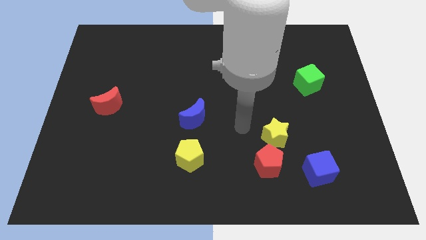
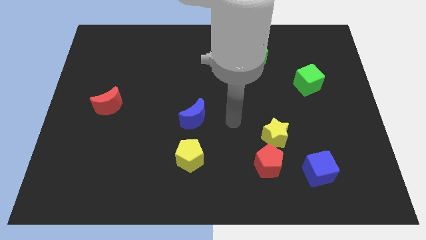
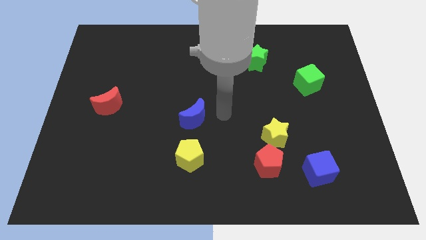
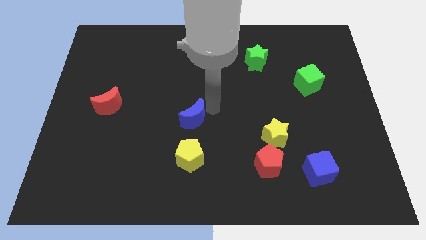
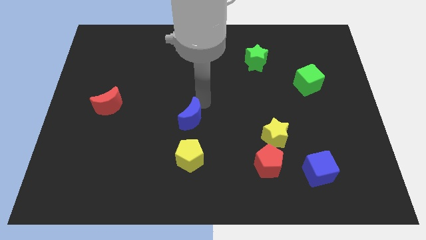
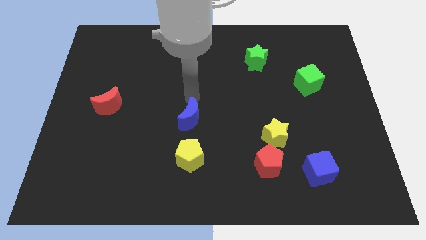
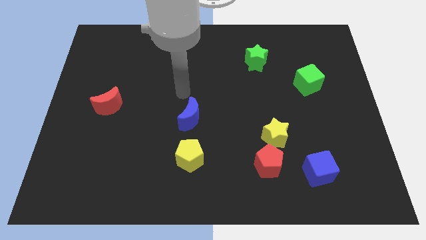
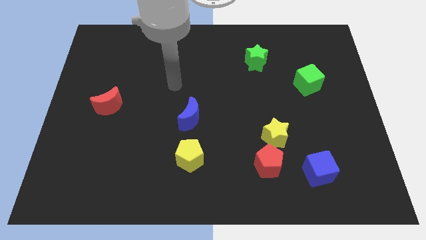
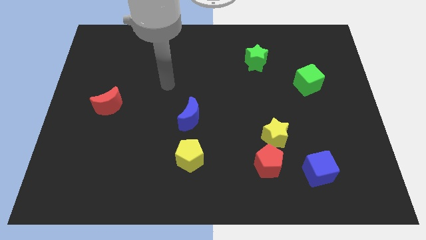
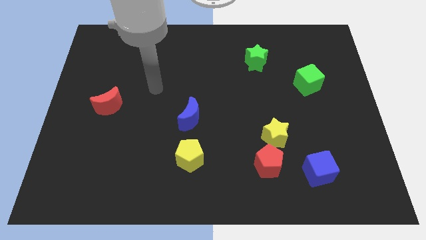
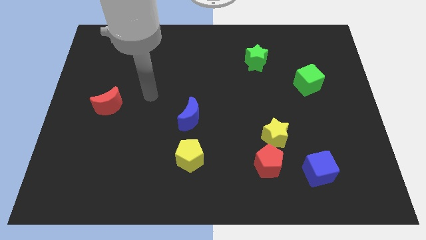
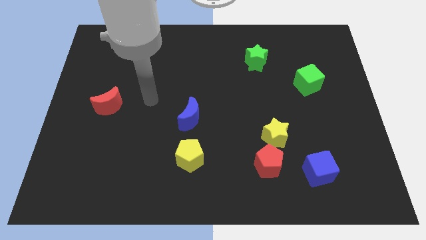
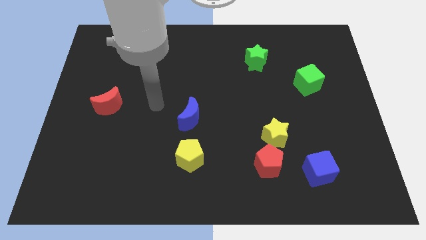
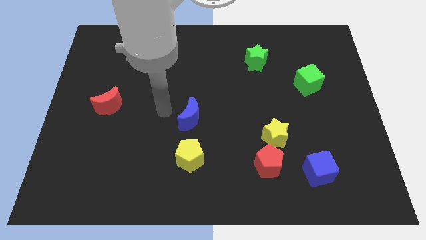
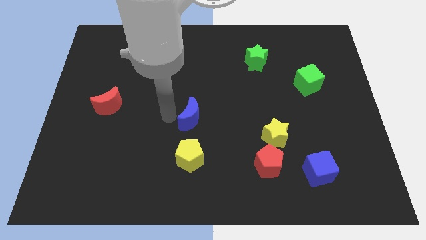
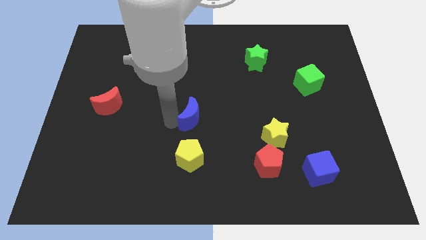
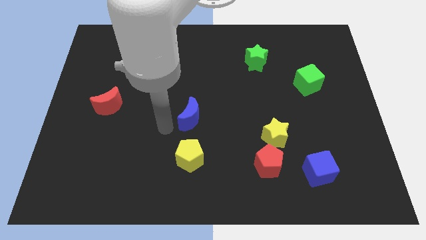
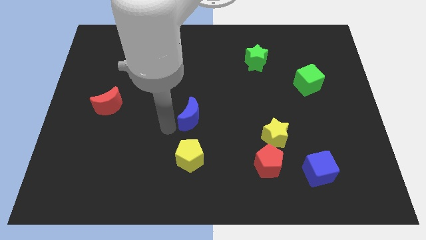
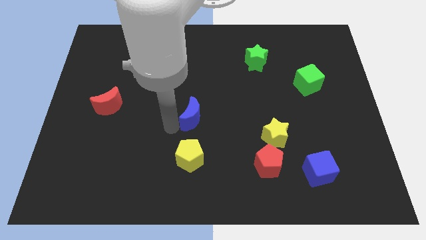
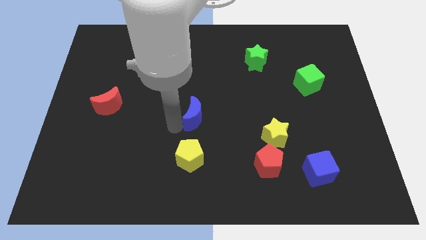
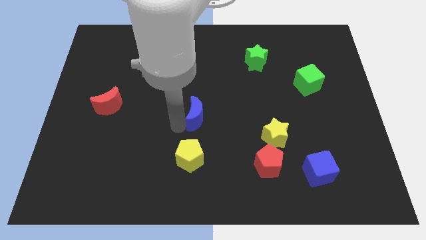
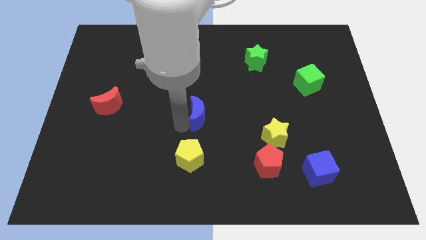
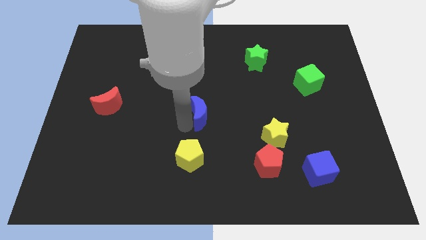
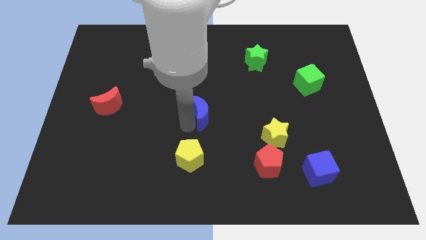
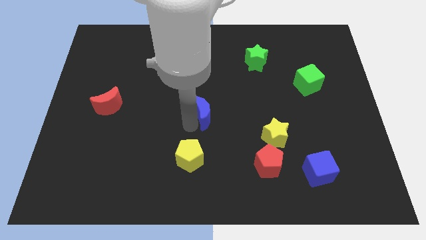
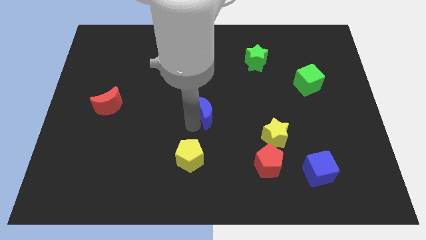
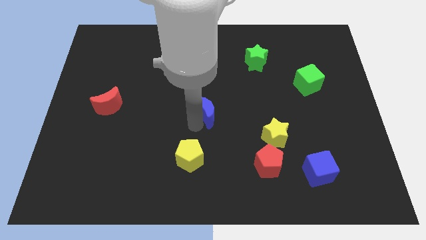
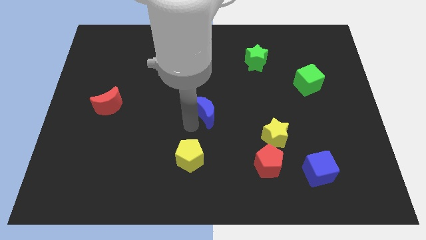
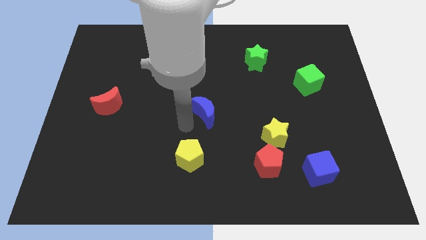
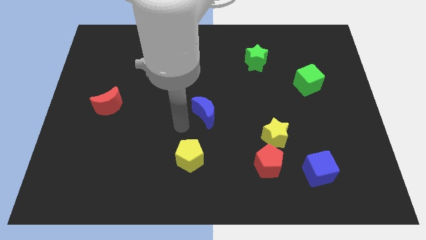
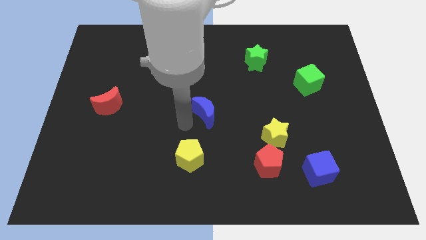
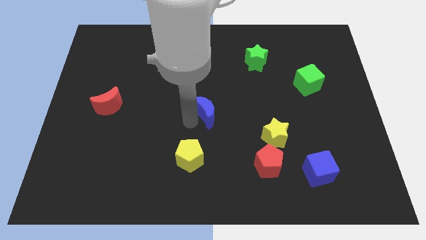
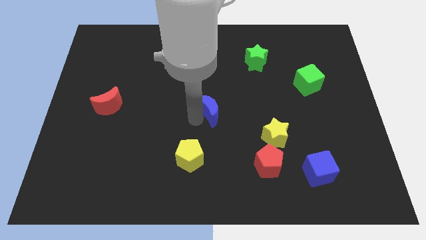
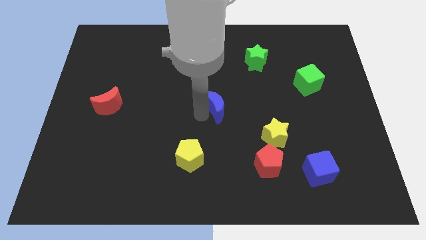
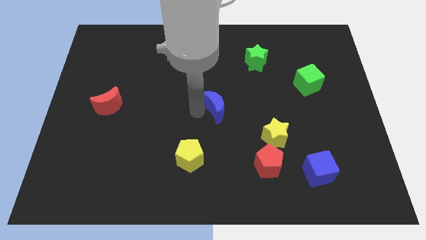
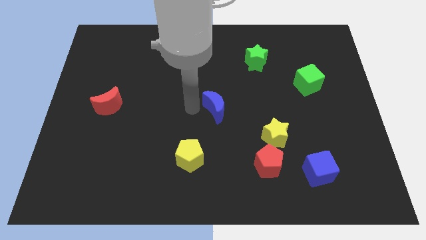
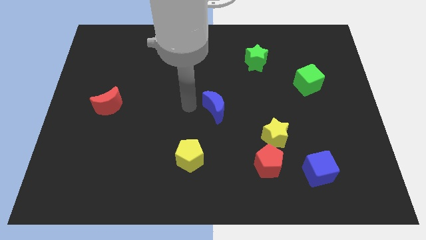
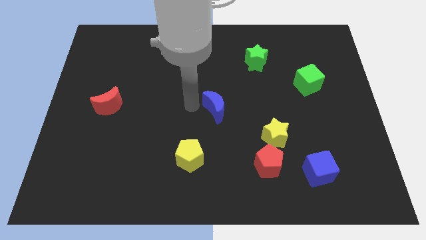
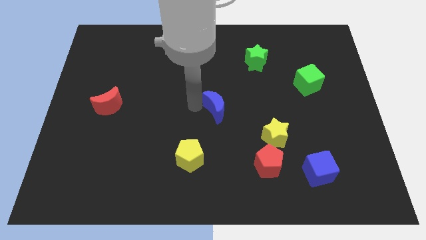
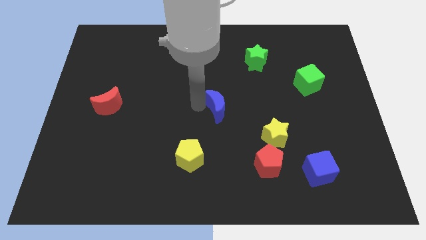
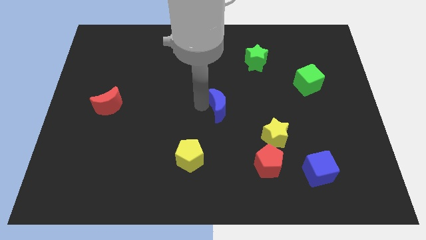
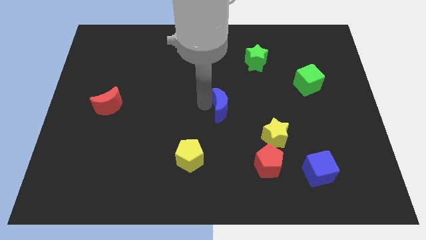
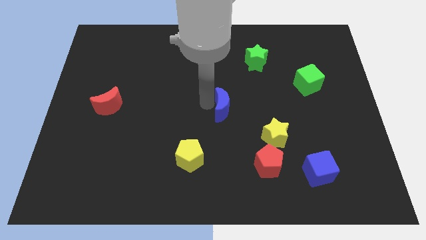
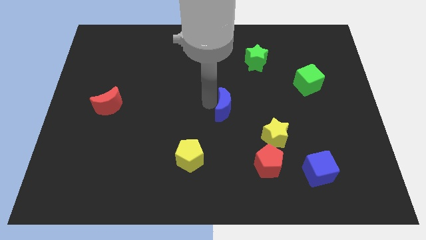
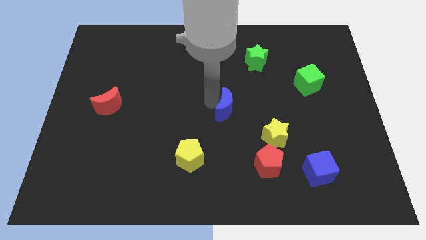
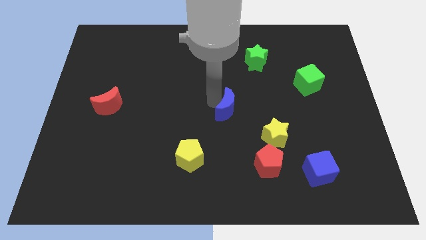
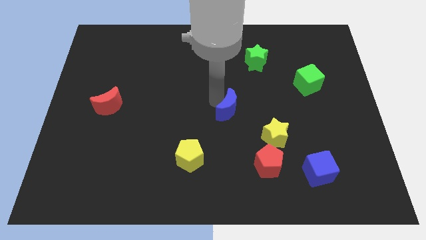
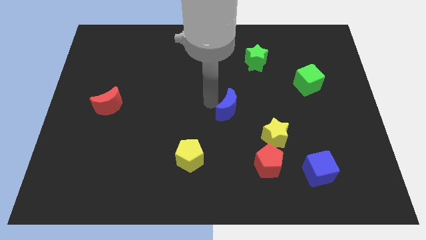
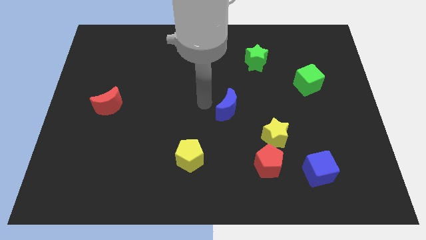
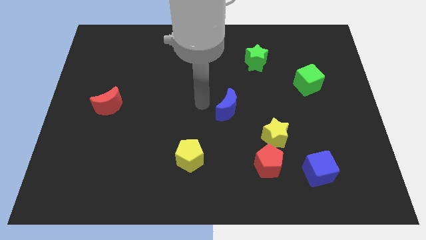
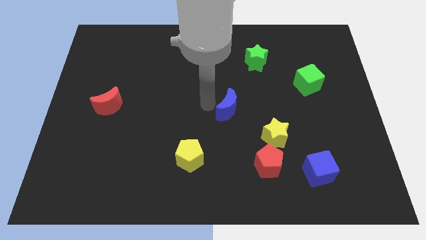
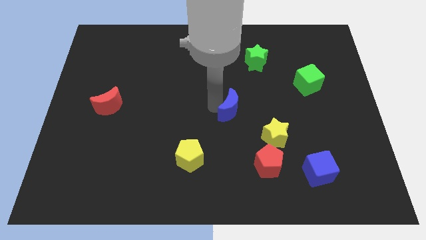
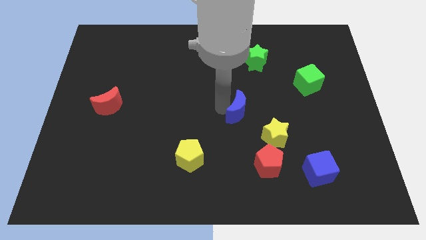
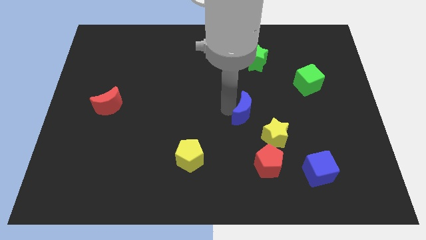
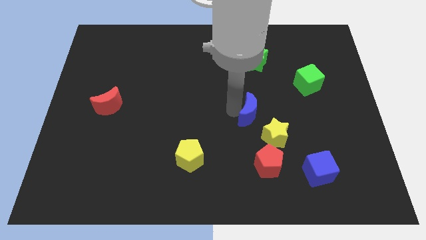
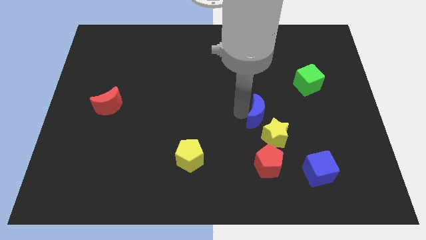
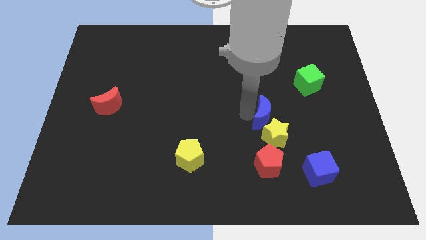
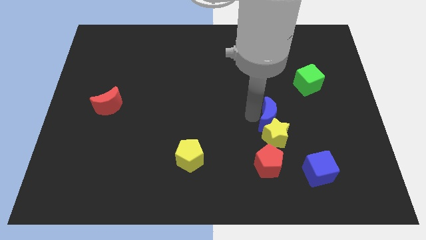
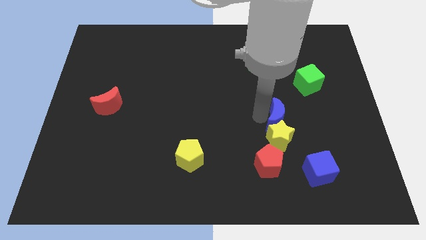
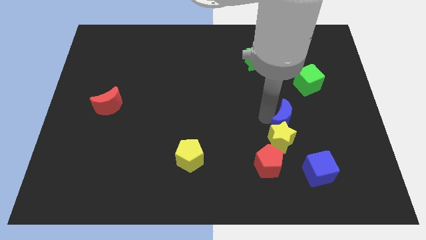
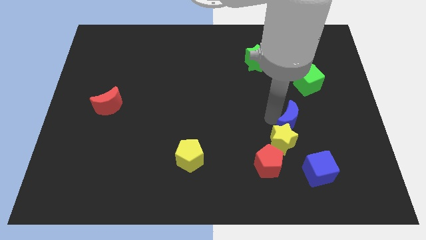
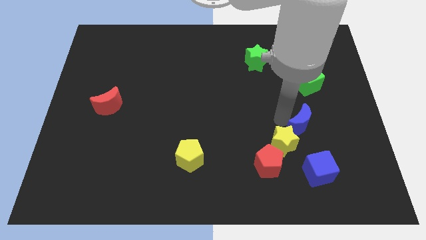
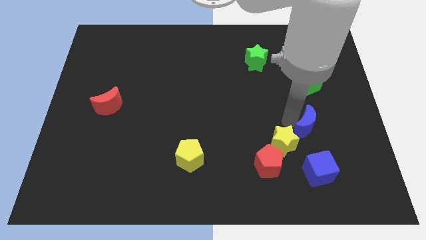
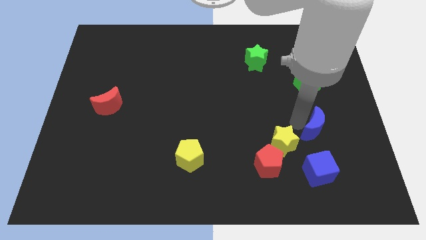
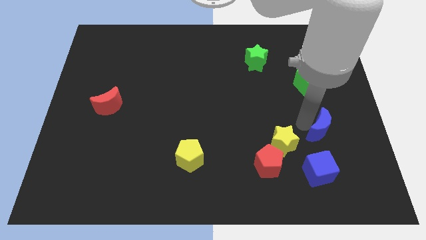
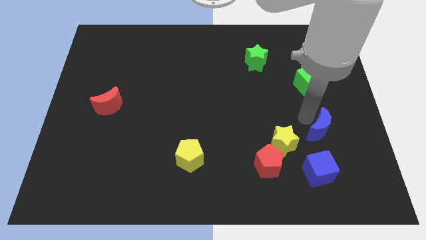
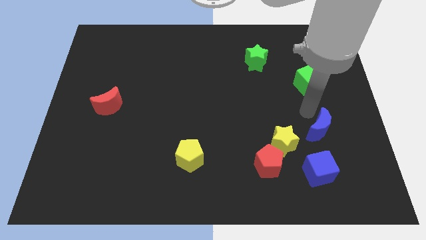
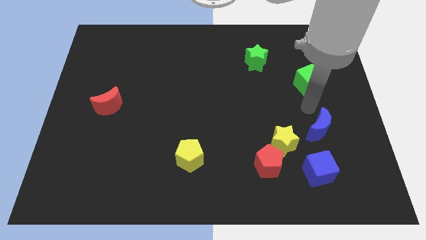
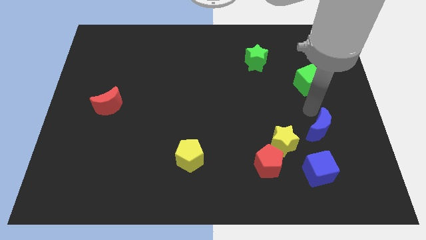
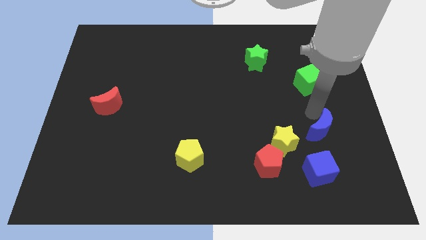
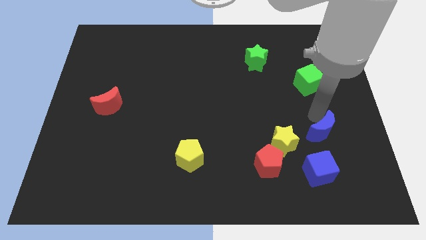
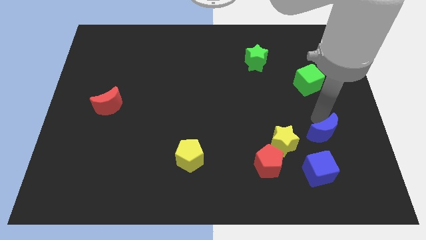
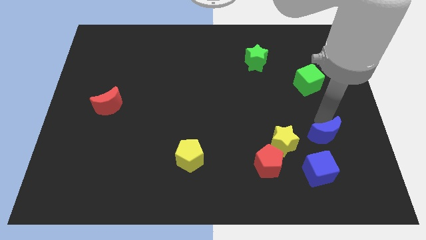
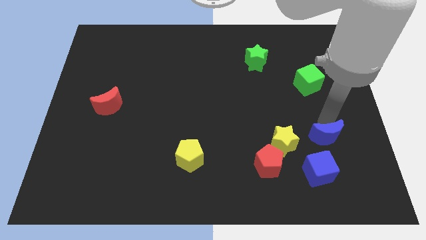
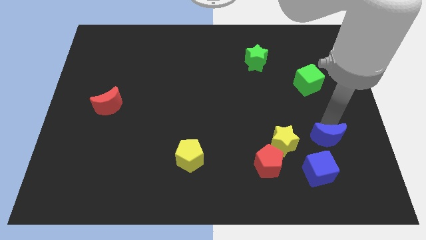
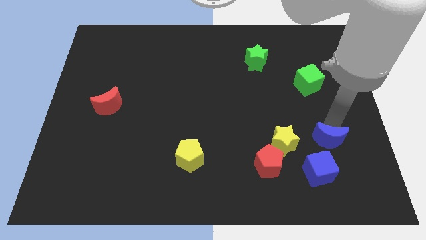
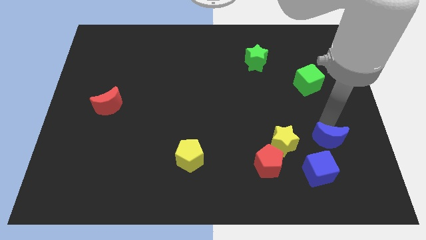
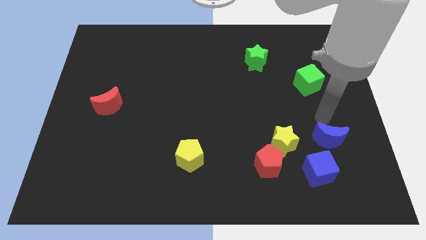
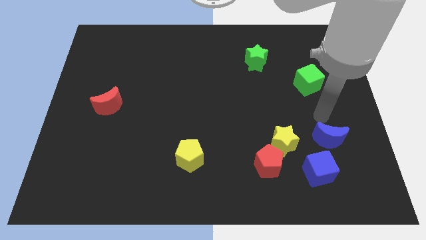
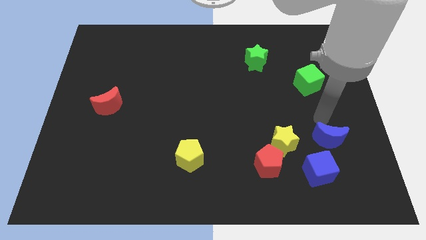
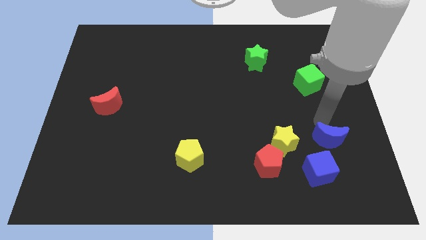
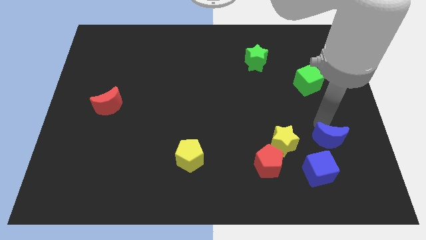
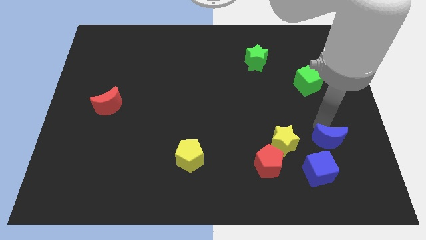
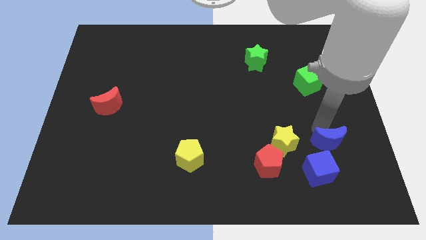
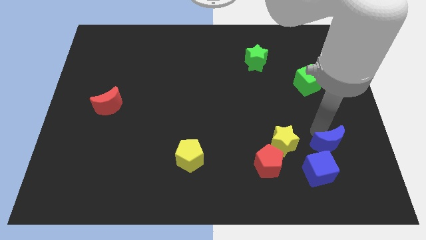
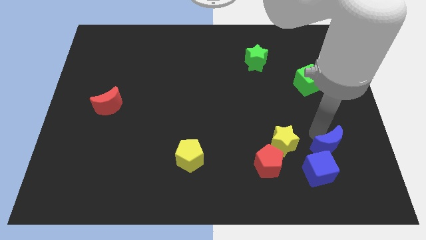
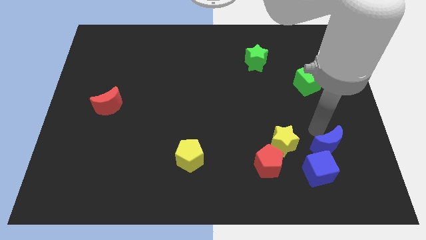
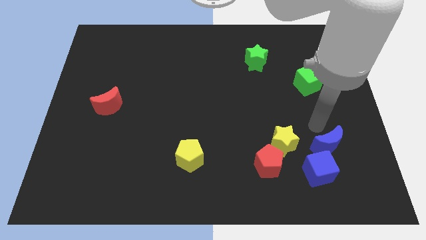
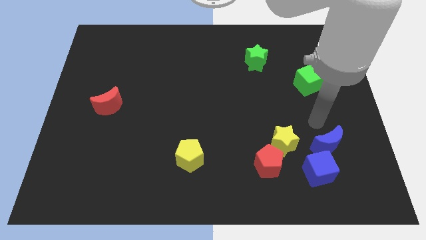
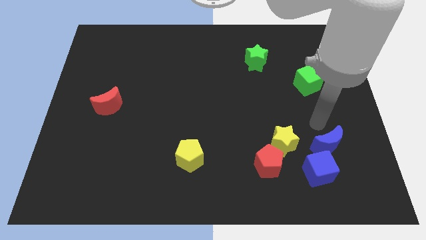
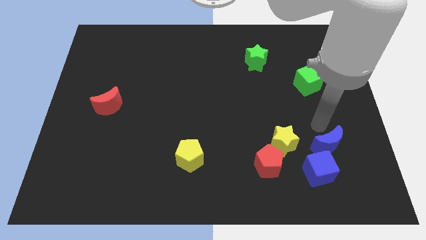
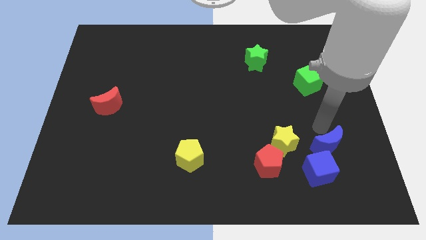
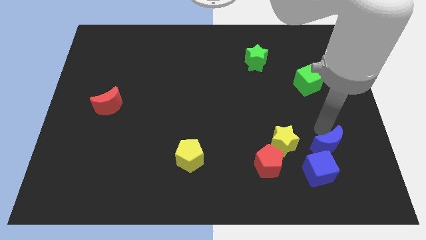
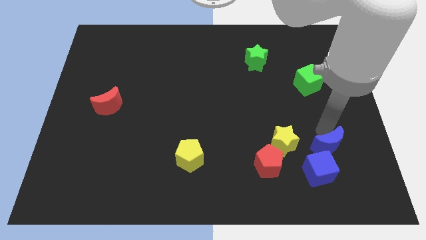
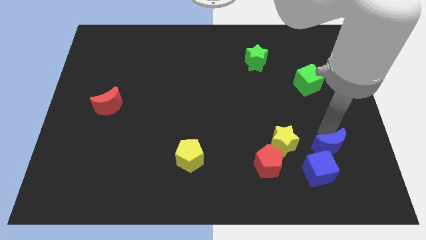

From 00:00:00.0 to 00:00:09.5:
push the blue moon to the right side of the red pentagon
